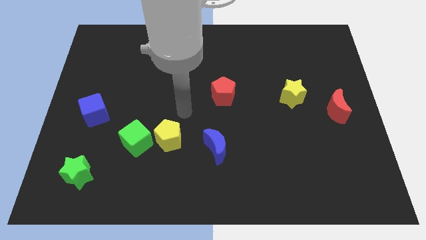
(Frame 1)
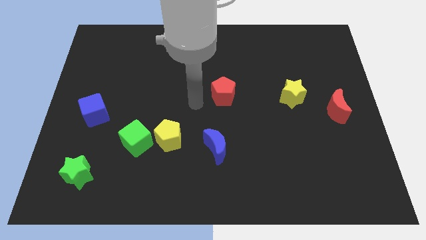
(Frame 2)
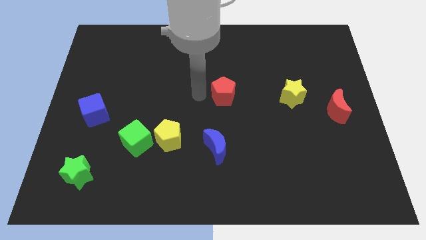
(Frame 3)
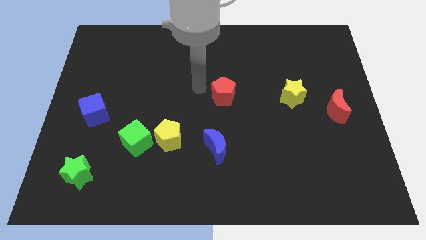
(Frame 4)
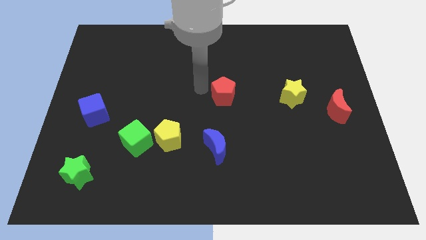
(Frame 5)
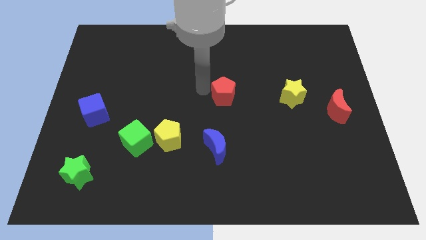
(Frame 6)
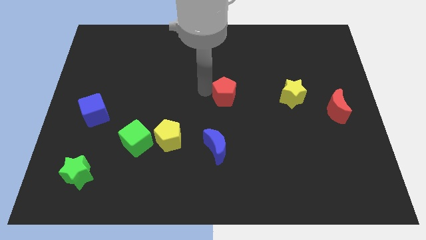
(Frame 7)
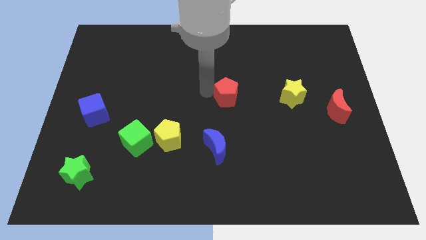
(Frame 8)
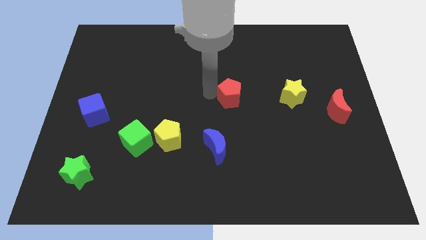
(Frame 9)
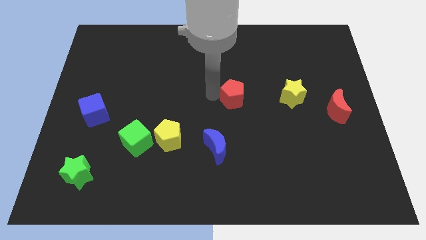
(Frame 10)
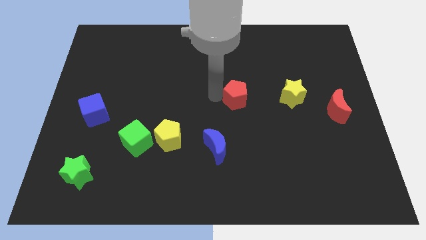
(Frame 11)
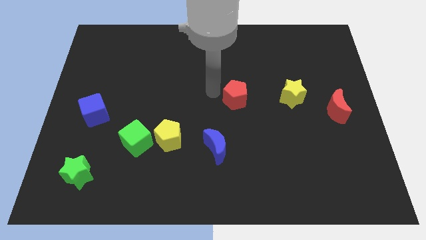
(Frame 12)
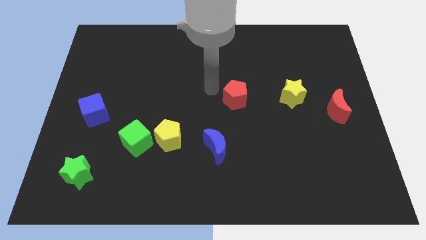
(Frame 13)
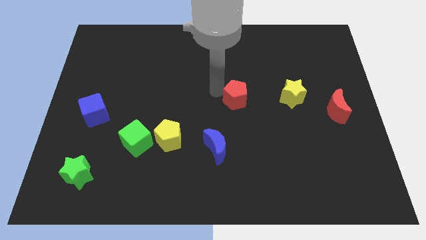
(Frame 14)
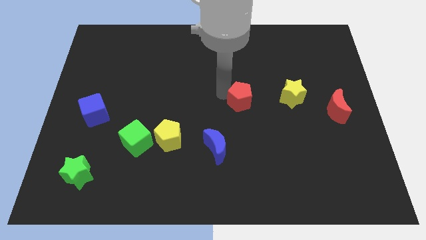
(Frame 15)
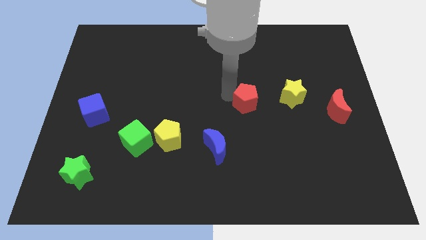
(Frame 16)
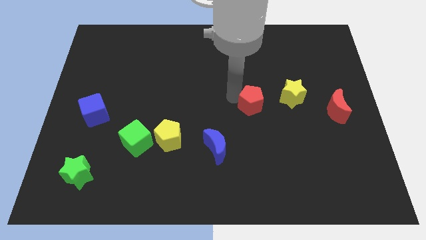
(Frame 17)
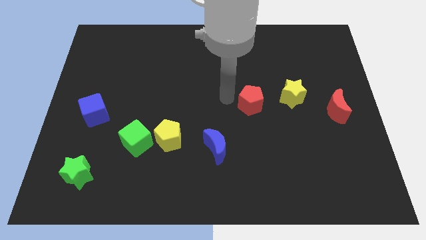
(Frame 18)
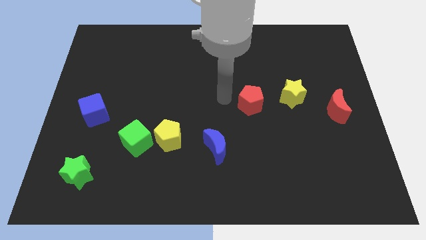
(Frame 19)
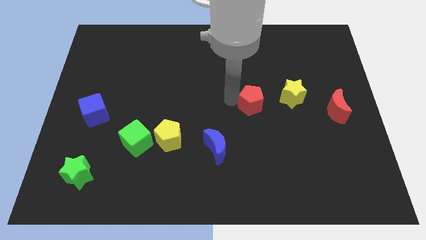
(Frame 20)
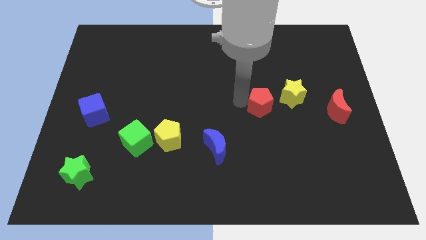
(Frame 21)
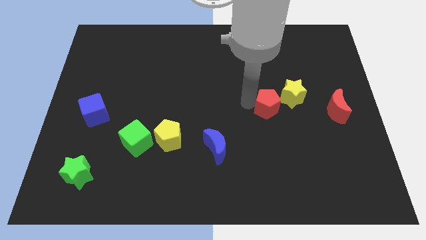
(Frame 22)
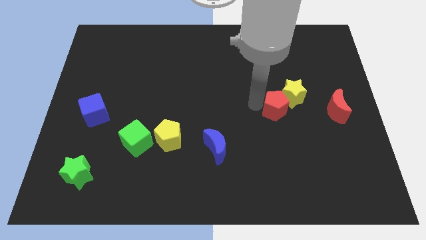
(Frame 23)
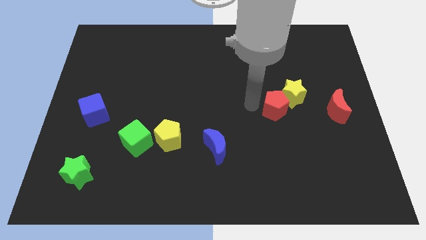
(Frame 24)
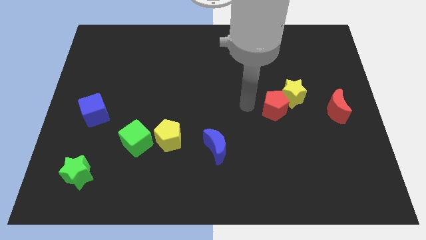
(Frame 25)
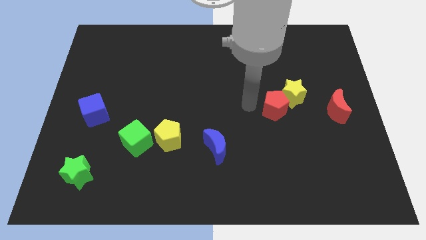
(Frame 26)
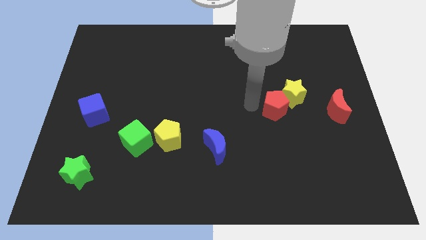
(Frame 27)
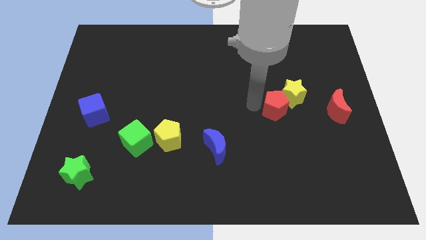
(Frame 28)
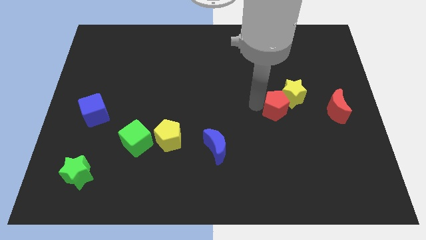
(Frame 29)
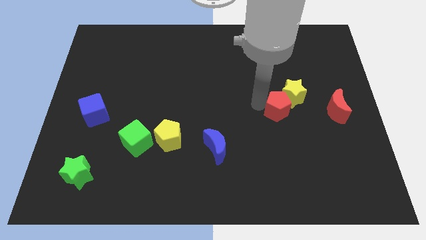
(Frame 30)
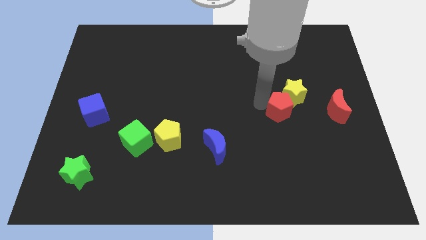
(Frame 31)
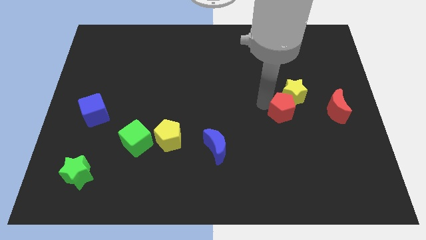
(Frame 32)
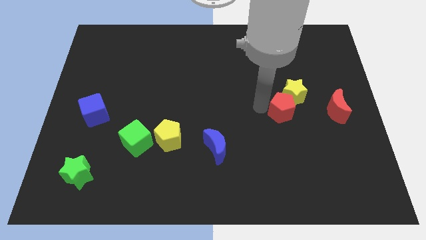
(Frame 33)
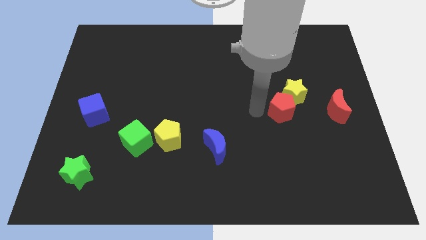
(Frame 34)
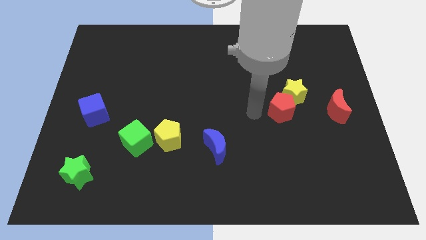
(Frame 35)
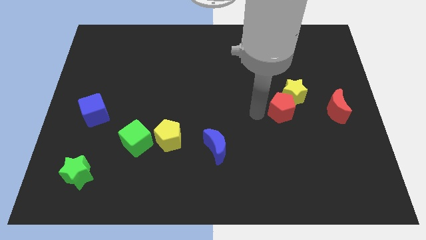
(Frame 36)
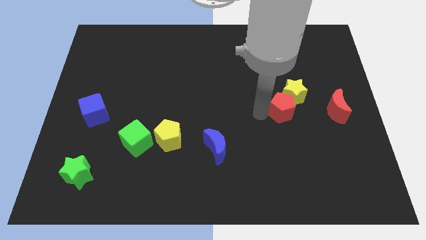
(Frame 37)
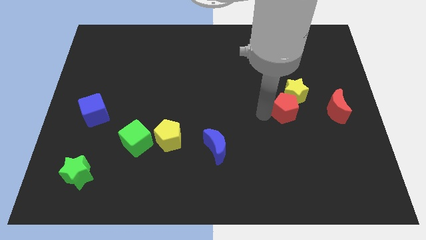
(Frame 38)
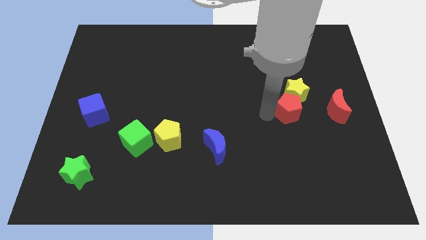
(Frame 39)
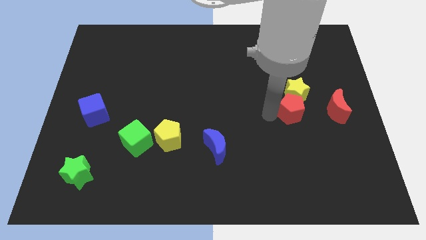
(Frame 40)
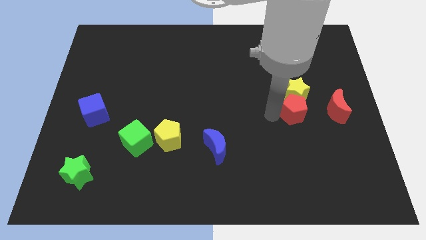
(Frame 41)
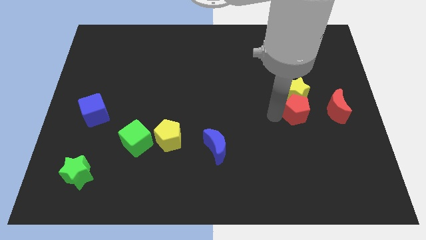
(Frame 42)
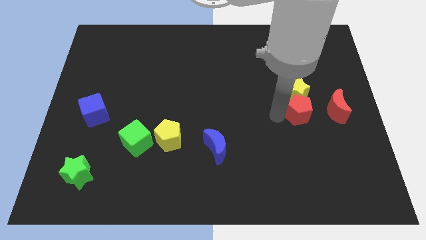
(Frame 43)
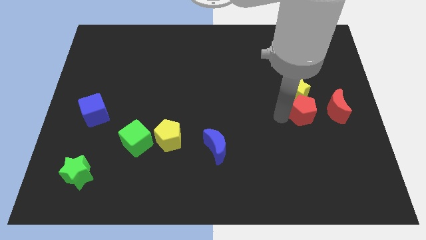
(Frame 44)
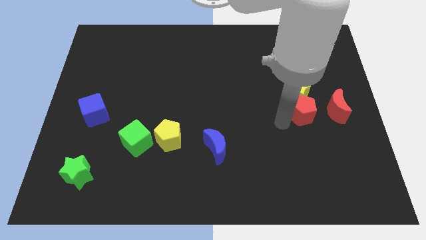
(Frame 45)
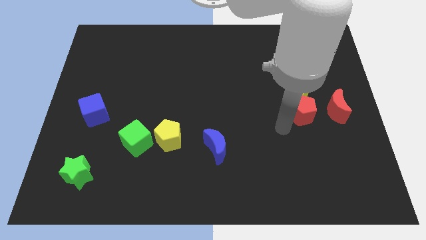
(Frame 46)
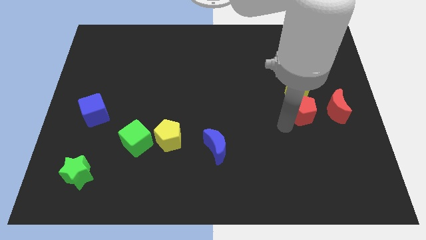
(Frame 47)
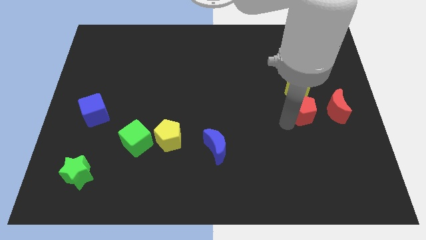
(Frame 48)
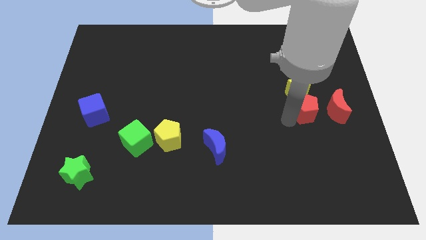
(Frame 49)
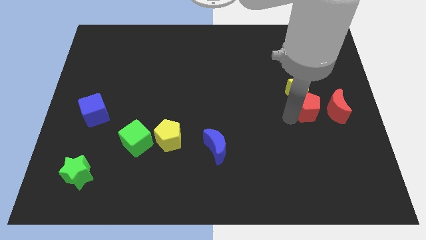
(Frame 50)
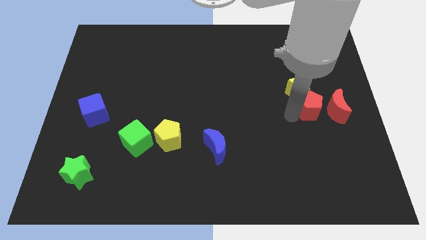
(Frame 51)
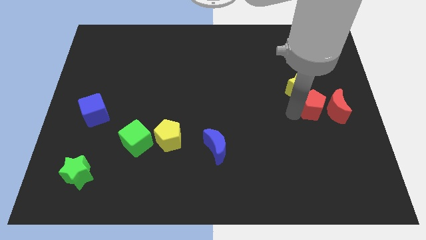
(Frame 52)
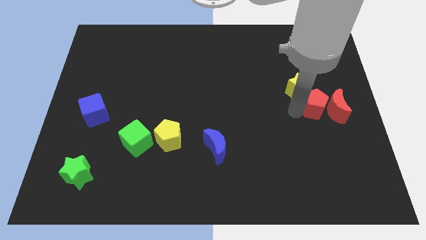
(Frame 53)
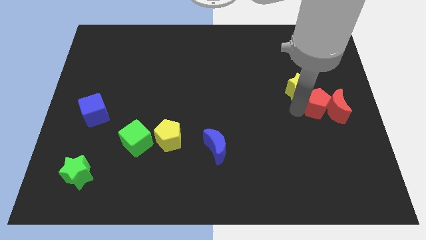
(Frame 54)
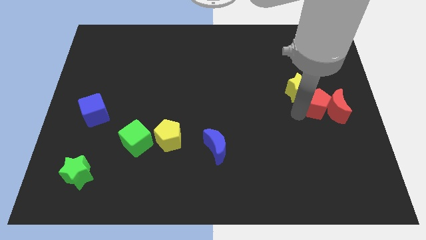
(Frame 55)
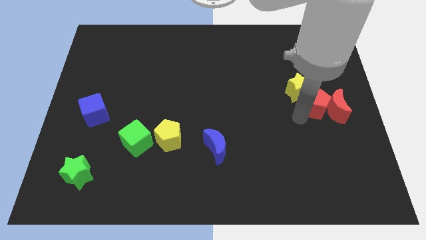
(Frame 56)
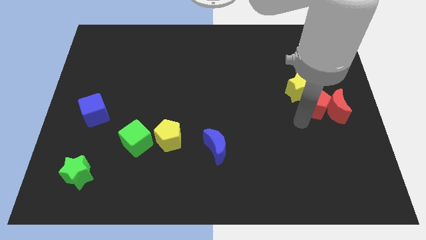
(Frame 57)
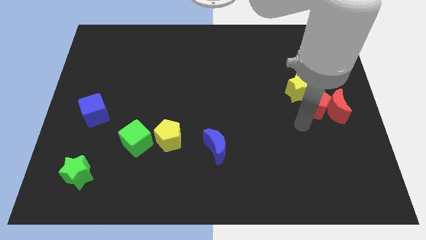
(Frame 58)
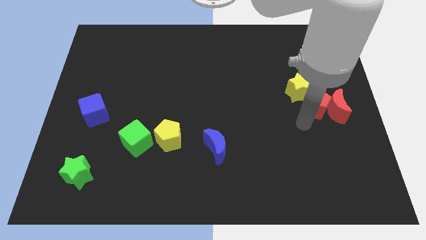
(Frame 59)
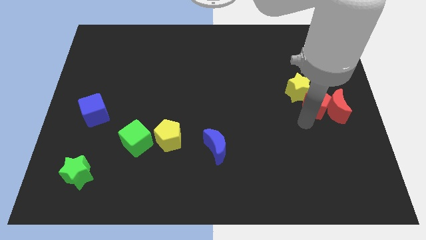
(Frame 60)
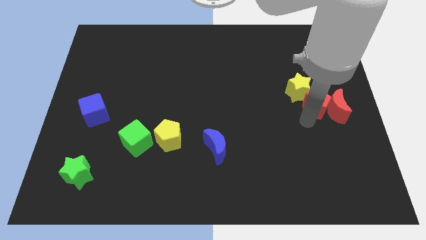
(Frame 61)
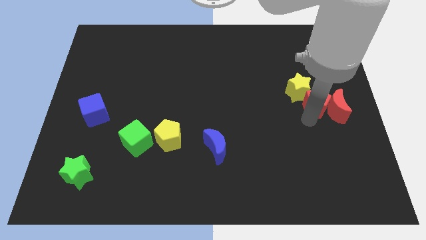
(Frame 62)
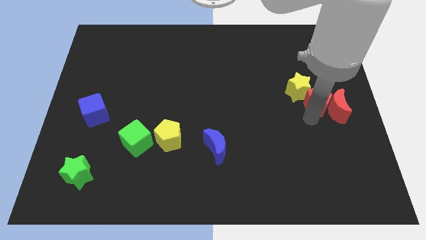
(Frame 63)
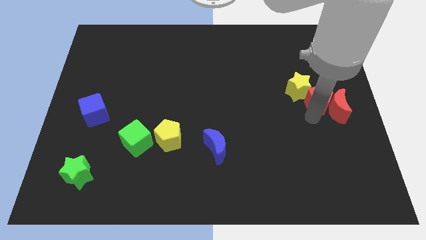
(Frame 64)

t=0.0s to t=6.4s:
push the red pentagon to the right side of the board
